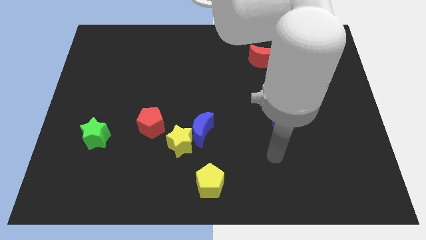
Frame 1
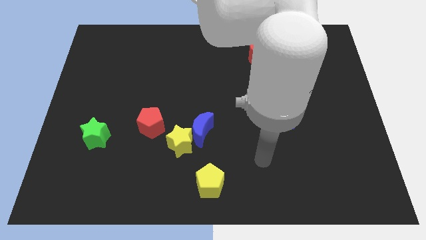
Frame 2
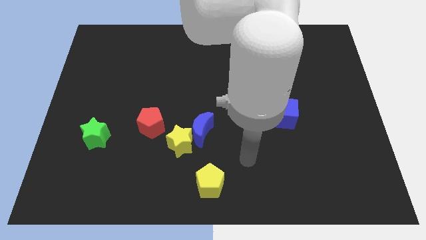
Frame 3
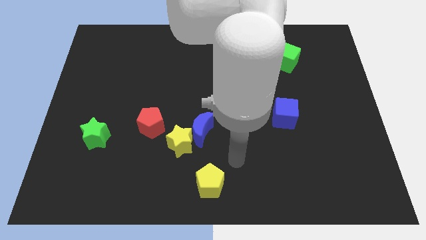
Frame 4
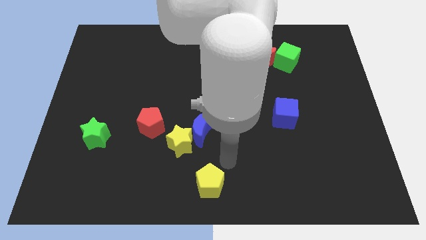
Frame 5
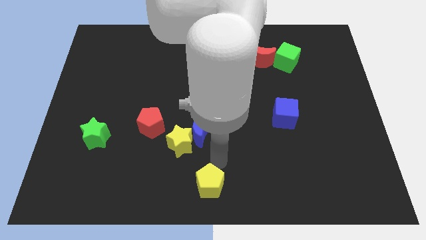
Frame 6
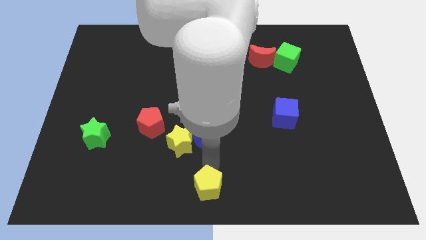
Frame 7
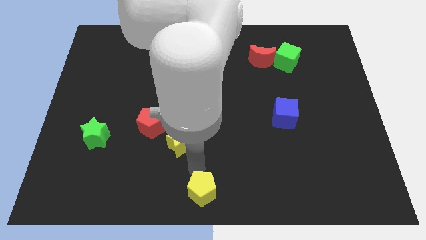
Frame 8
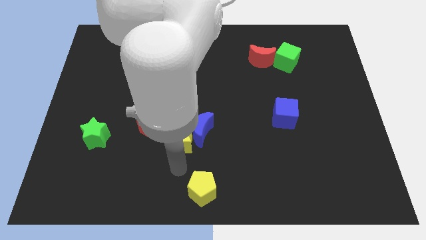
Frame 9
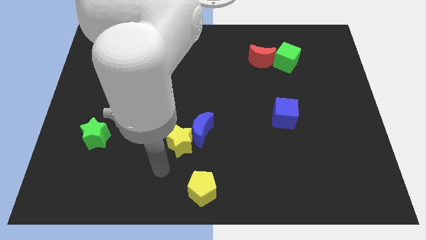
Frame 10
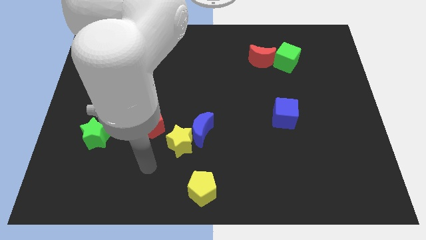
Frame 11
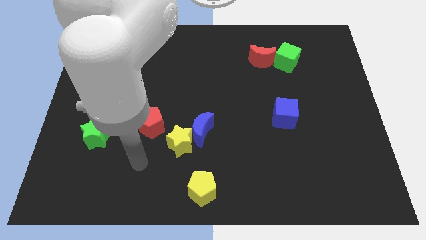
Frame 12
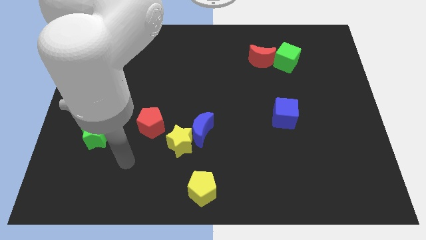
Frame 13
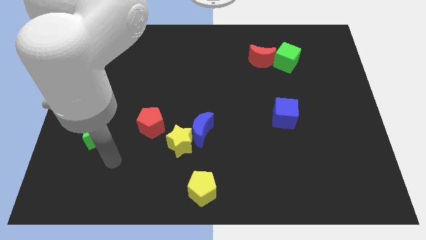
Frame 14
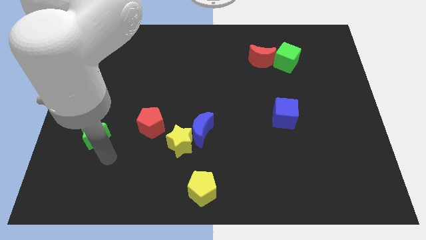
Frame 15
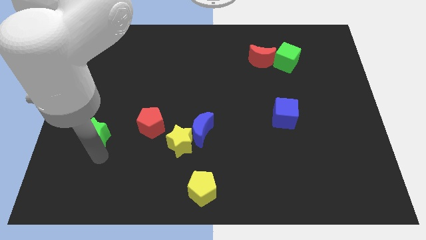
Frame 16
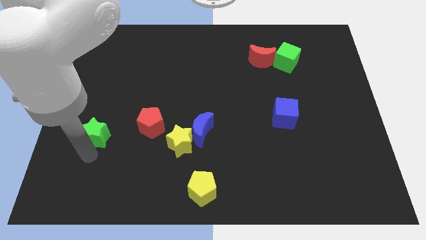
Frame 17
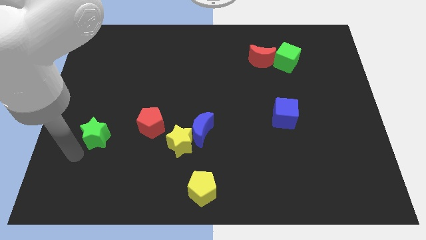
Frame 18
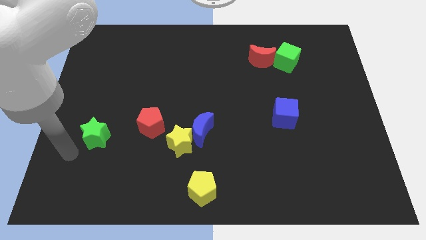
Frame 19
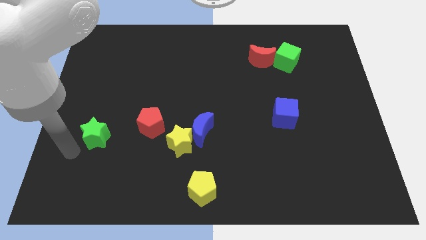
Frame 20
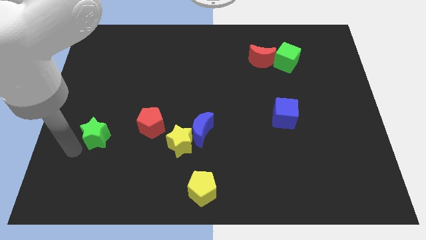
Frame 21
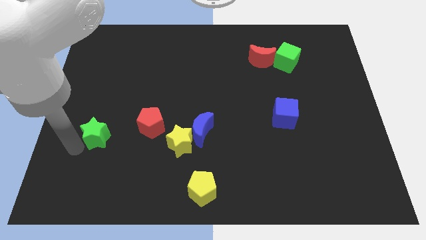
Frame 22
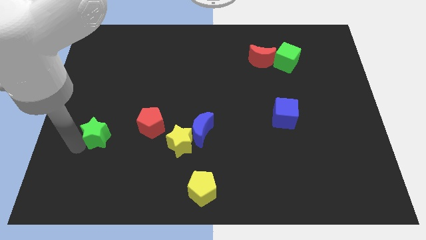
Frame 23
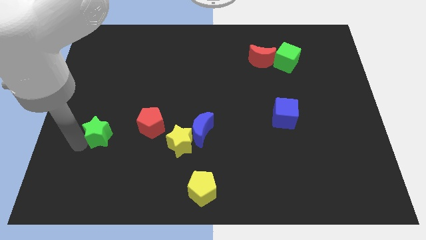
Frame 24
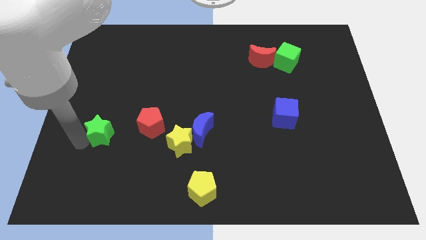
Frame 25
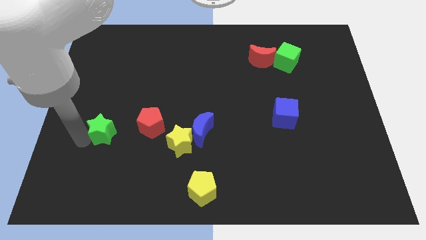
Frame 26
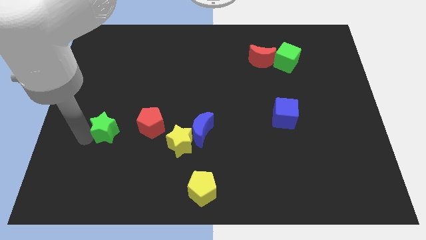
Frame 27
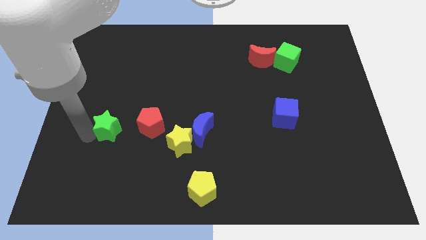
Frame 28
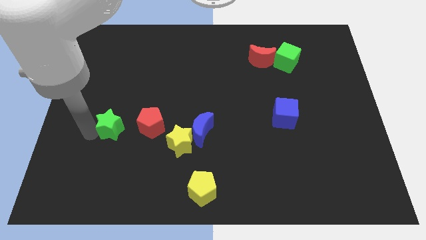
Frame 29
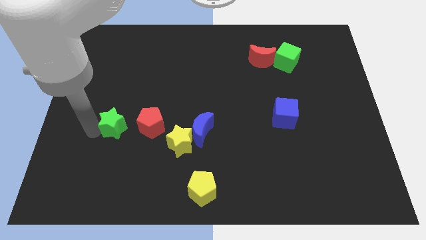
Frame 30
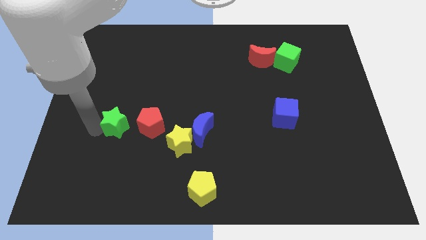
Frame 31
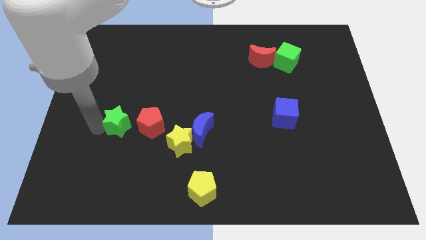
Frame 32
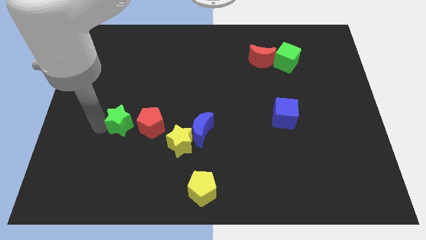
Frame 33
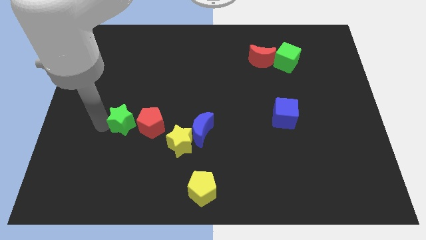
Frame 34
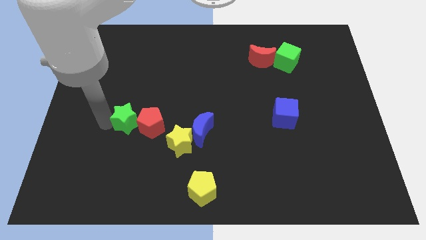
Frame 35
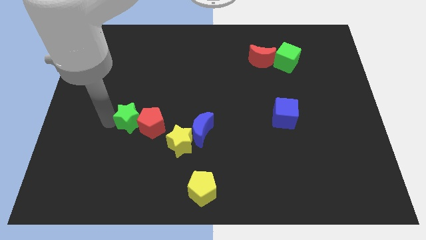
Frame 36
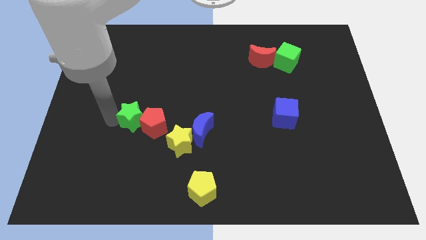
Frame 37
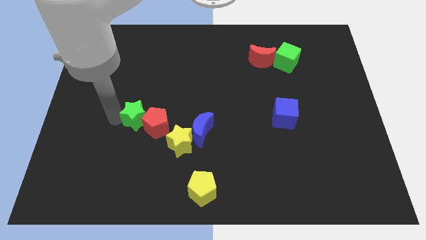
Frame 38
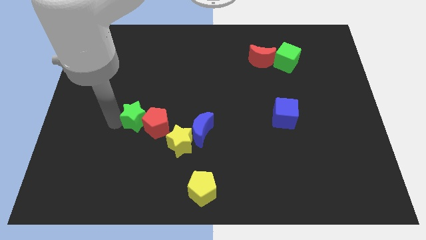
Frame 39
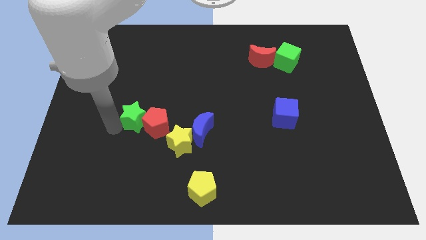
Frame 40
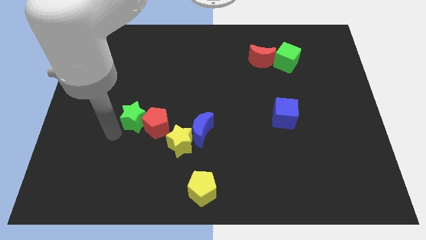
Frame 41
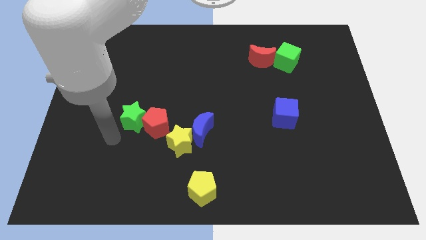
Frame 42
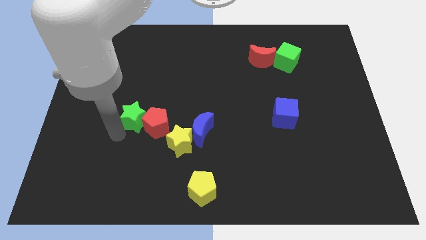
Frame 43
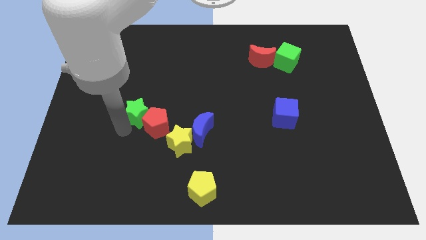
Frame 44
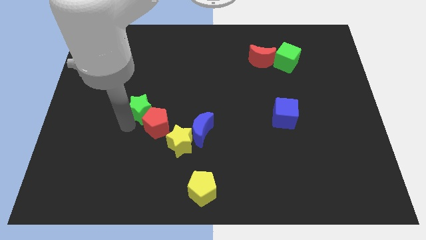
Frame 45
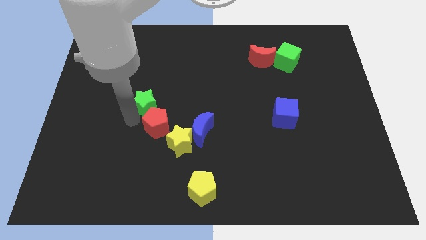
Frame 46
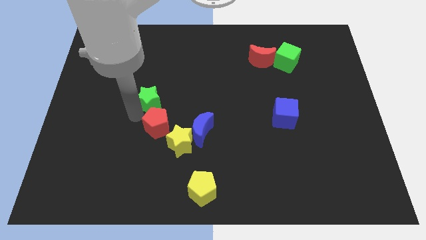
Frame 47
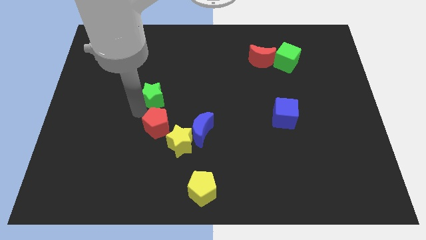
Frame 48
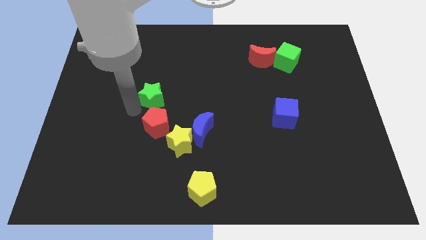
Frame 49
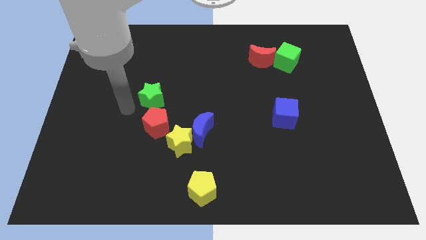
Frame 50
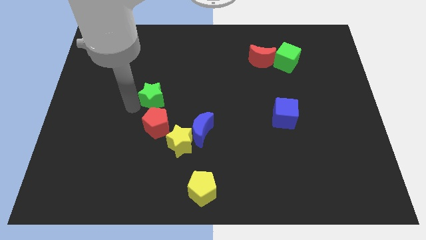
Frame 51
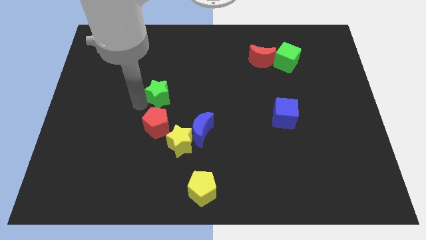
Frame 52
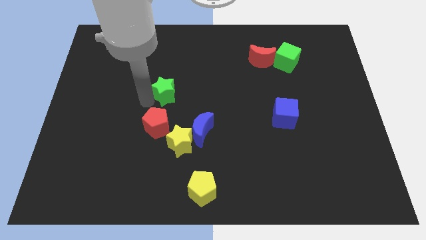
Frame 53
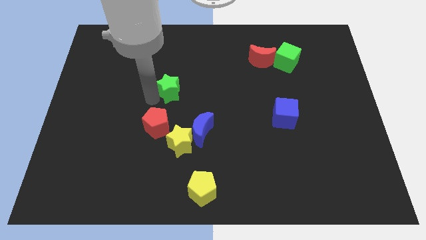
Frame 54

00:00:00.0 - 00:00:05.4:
push the green star upwards and right

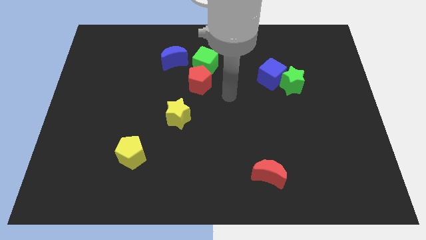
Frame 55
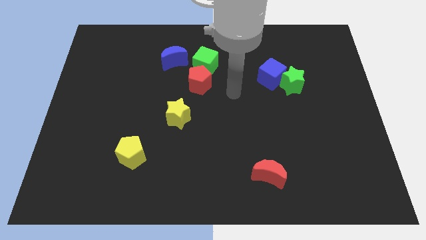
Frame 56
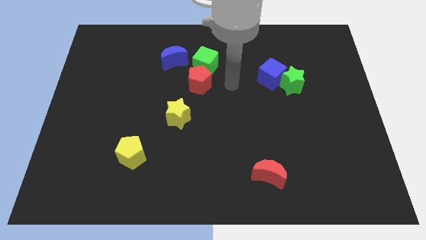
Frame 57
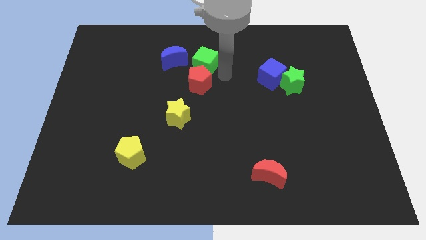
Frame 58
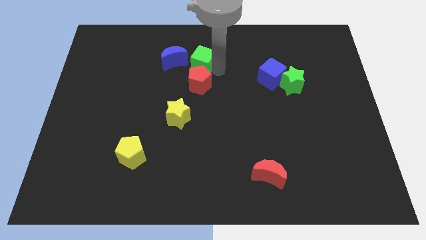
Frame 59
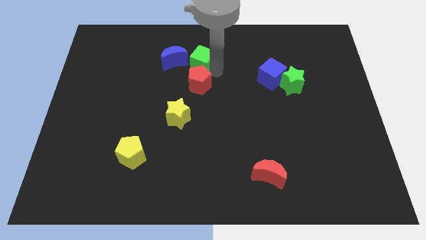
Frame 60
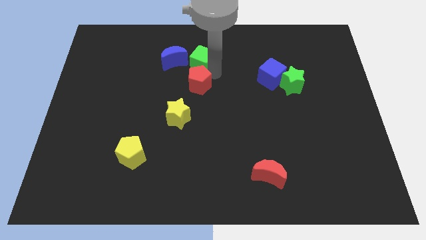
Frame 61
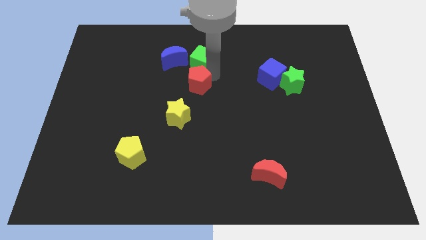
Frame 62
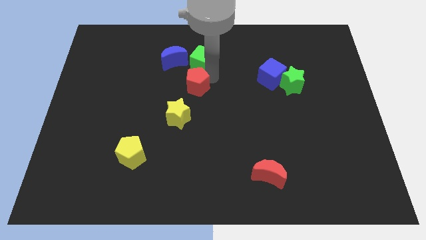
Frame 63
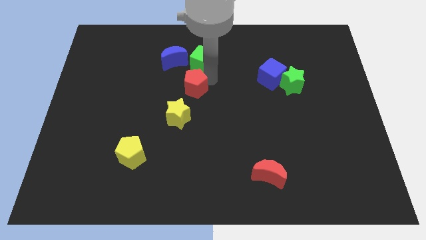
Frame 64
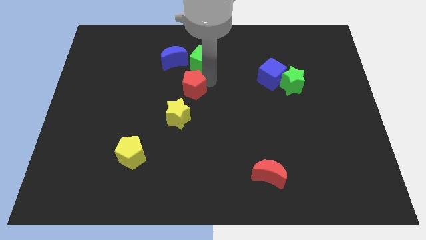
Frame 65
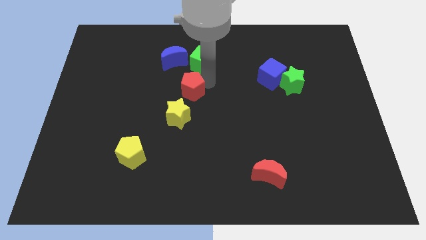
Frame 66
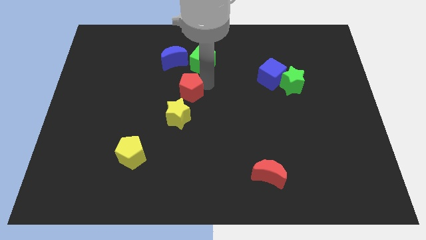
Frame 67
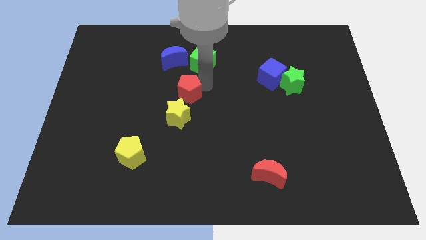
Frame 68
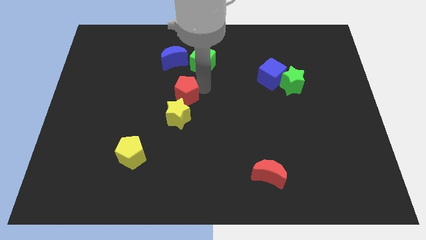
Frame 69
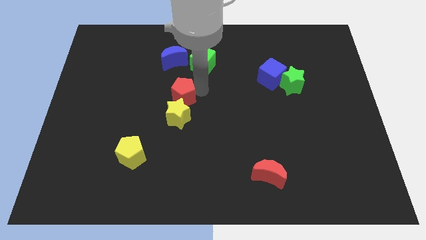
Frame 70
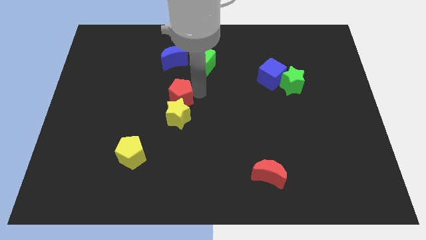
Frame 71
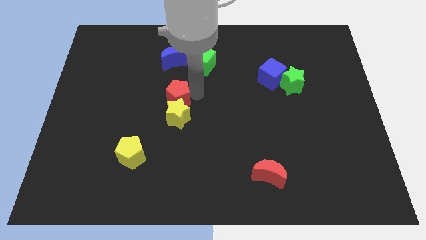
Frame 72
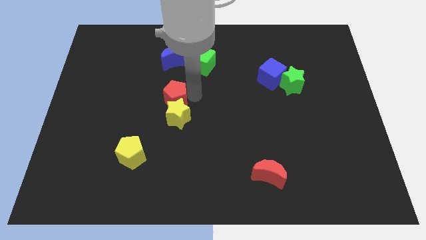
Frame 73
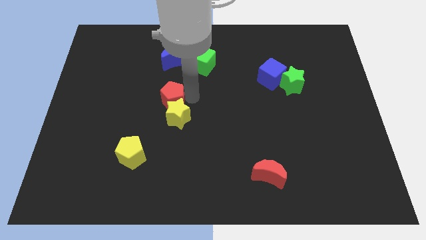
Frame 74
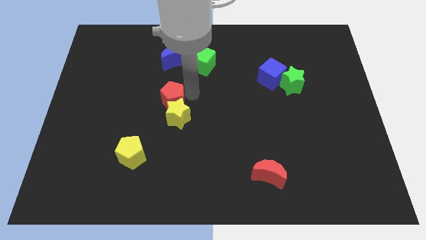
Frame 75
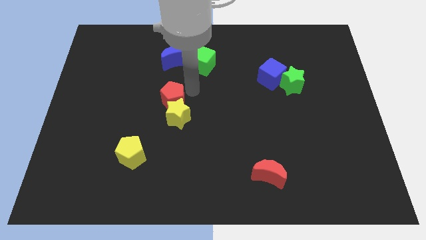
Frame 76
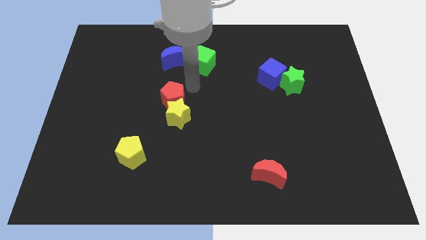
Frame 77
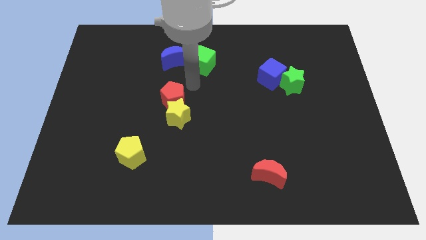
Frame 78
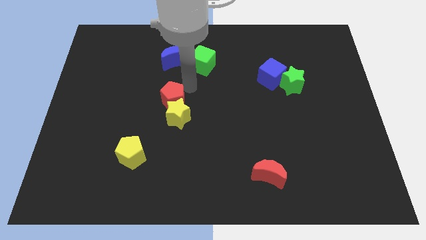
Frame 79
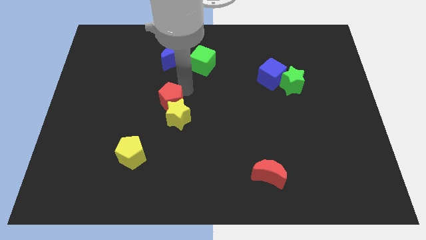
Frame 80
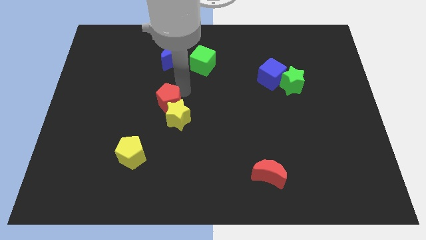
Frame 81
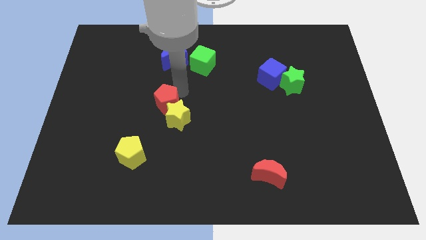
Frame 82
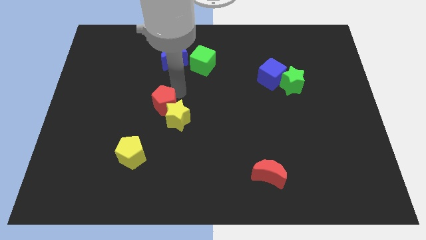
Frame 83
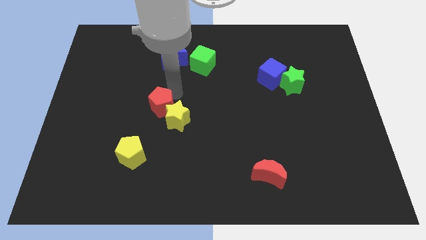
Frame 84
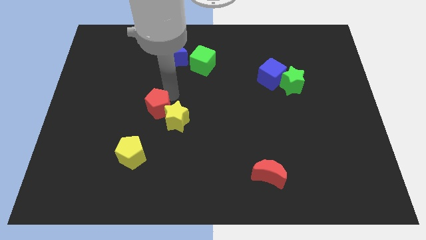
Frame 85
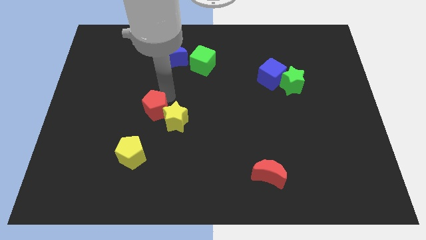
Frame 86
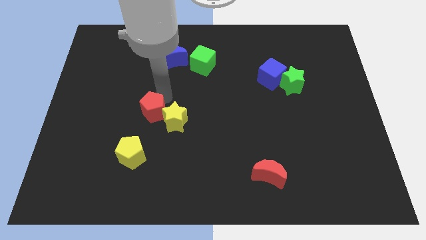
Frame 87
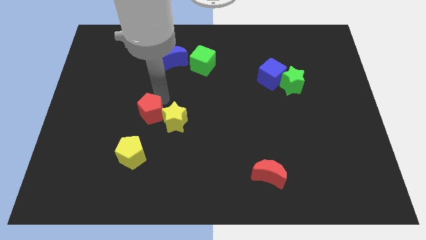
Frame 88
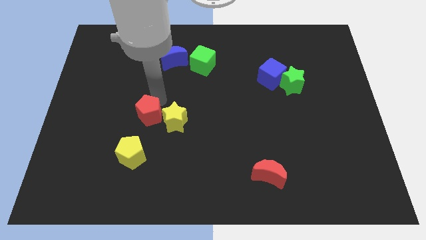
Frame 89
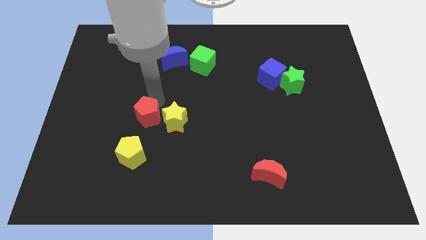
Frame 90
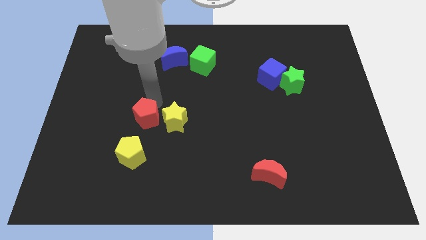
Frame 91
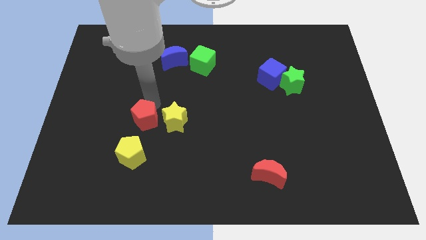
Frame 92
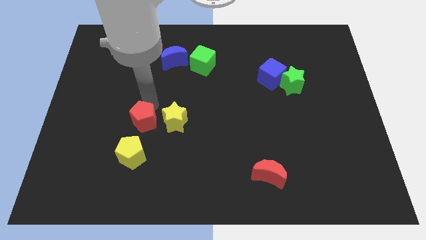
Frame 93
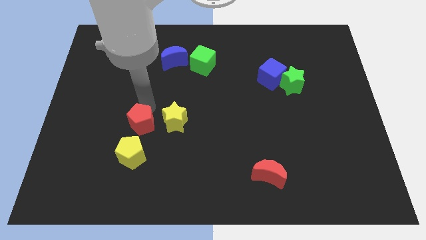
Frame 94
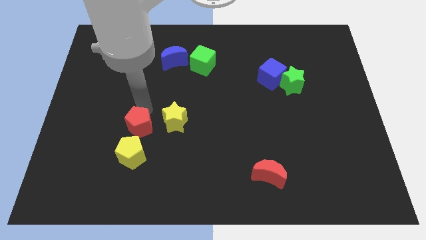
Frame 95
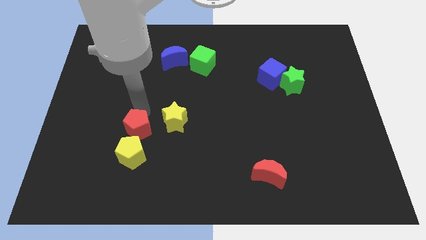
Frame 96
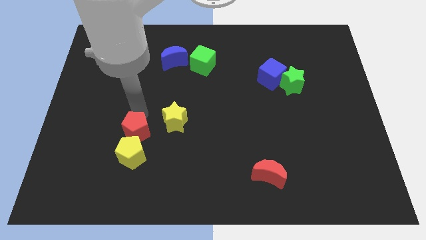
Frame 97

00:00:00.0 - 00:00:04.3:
move the red pentagon diagonally downwards and left
